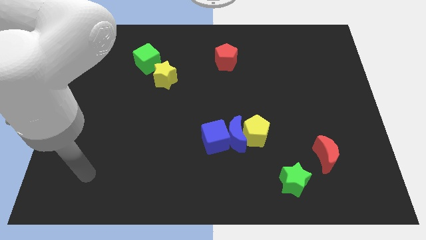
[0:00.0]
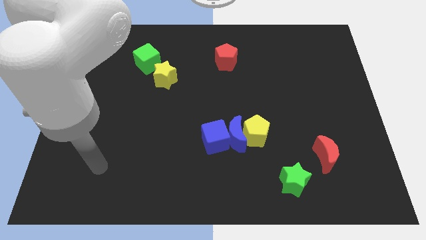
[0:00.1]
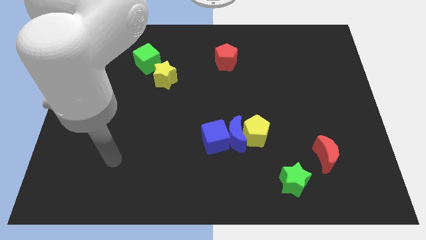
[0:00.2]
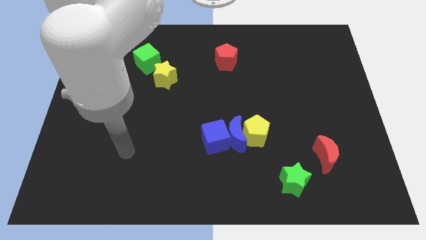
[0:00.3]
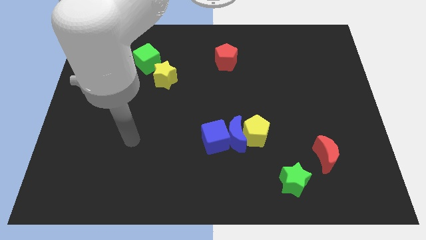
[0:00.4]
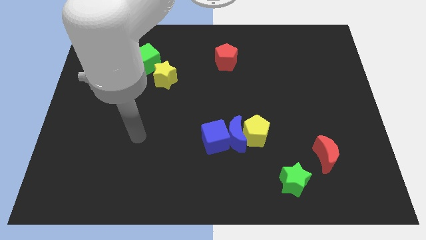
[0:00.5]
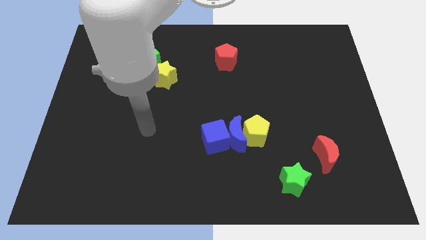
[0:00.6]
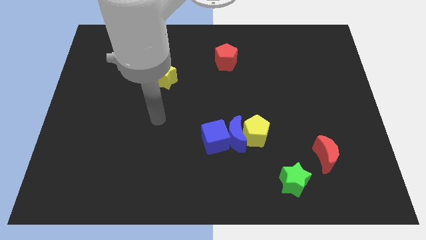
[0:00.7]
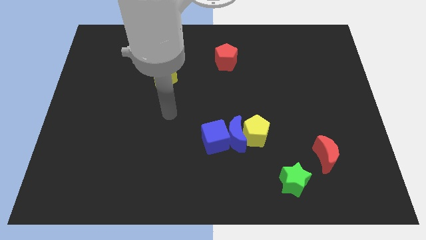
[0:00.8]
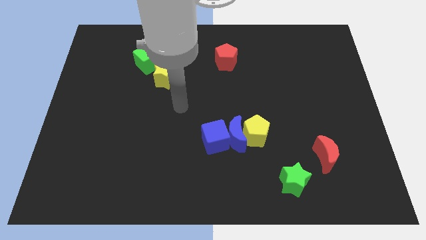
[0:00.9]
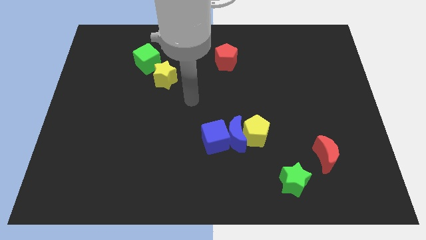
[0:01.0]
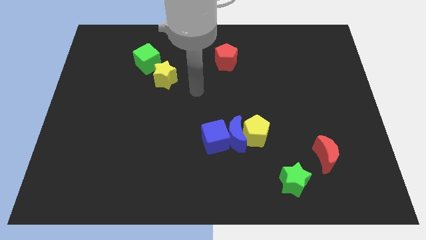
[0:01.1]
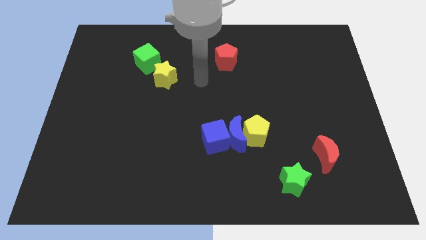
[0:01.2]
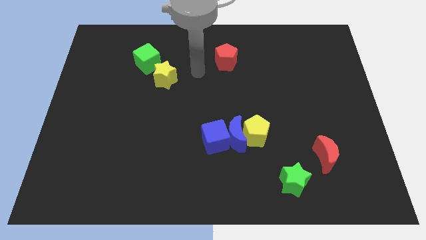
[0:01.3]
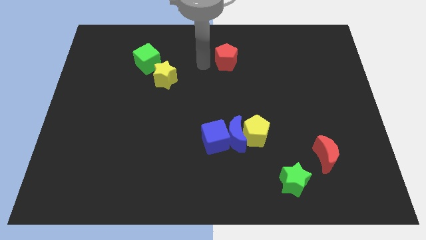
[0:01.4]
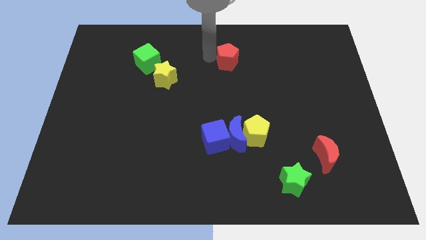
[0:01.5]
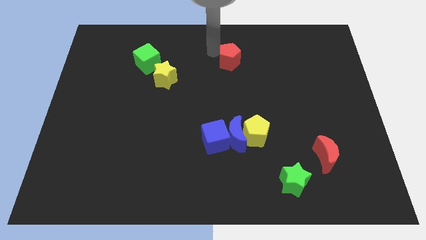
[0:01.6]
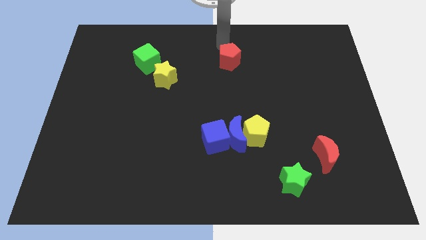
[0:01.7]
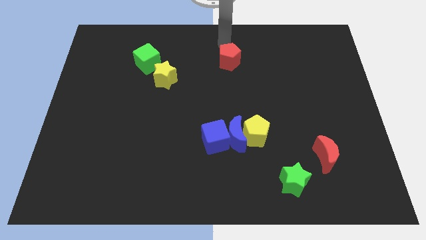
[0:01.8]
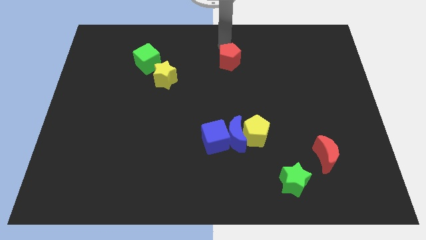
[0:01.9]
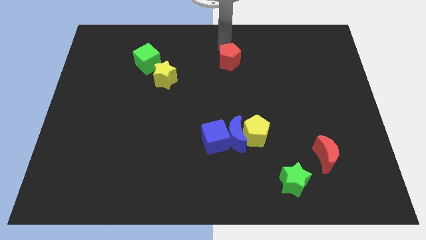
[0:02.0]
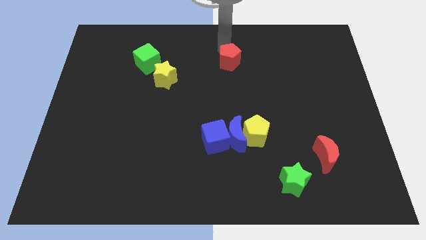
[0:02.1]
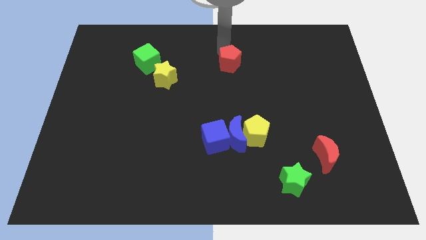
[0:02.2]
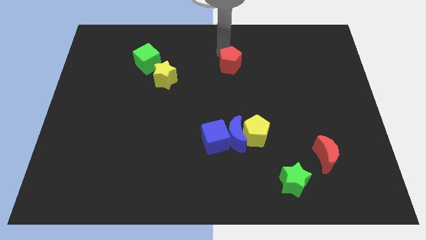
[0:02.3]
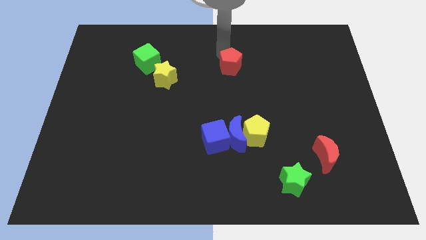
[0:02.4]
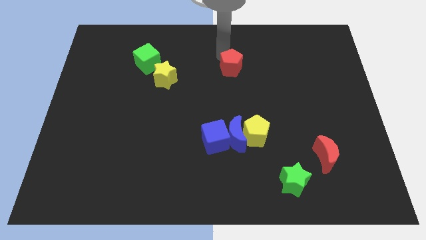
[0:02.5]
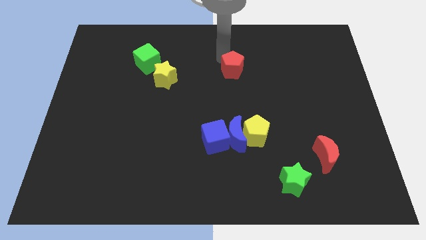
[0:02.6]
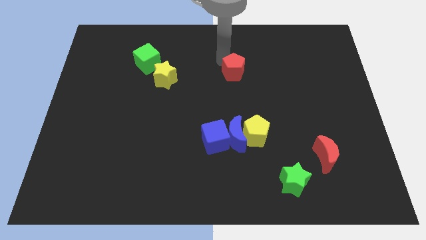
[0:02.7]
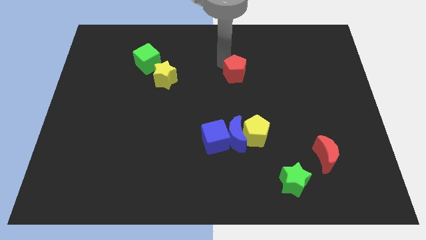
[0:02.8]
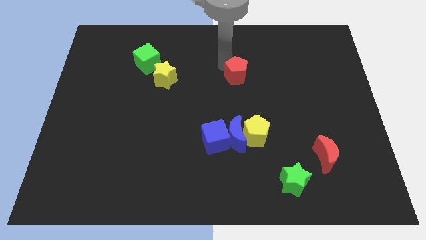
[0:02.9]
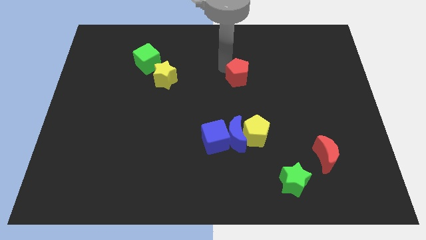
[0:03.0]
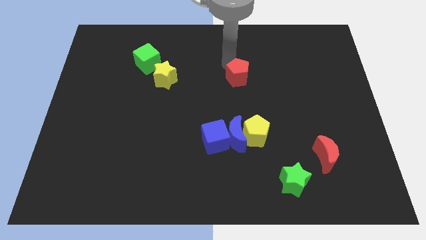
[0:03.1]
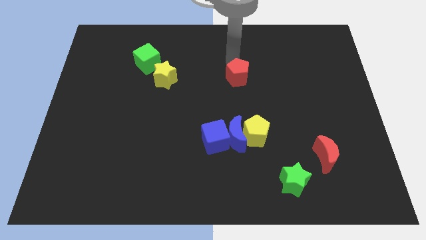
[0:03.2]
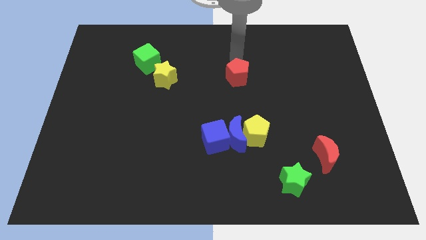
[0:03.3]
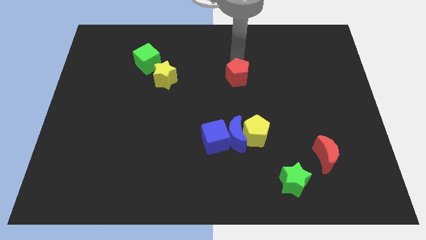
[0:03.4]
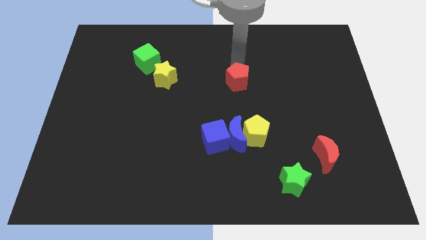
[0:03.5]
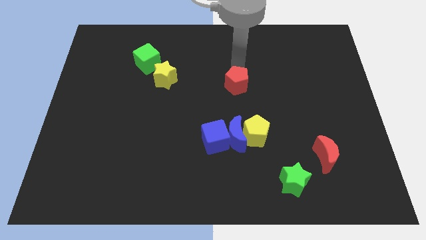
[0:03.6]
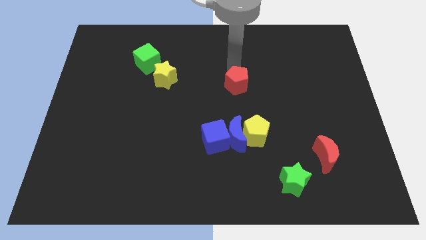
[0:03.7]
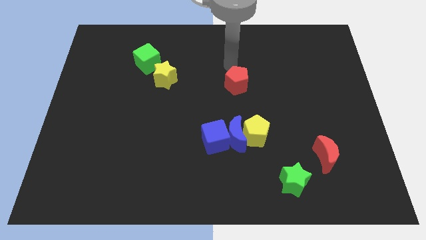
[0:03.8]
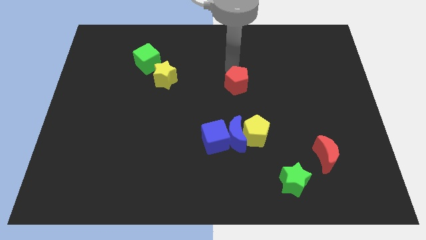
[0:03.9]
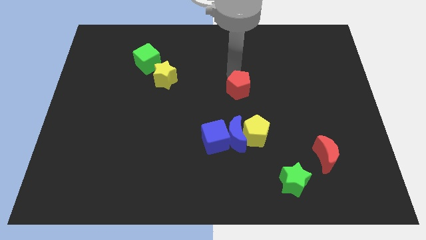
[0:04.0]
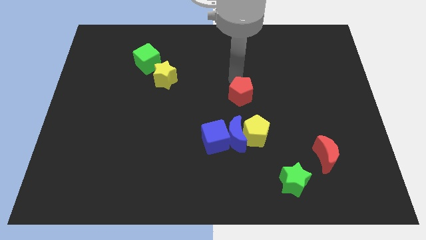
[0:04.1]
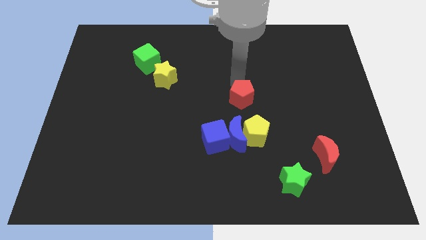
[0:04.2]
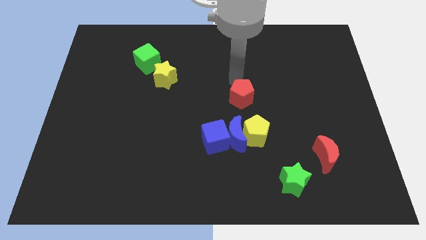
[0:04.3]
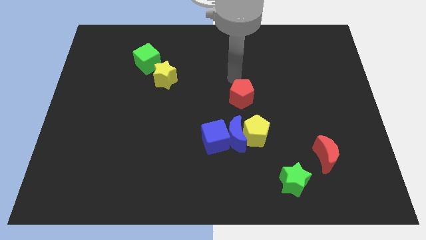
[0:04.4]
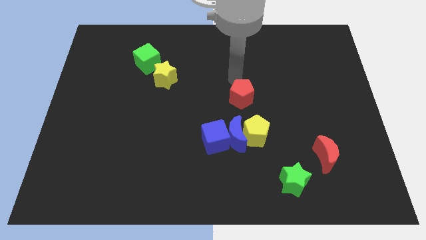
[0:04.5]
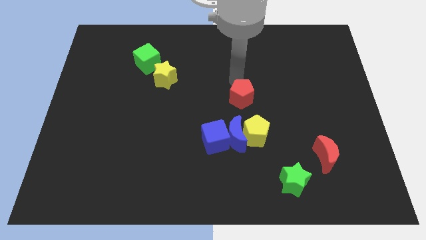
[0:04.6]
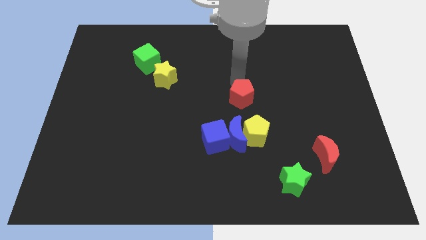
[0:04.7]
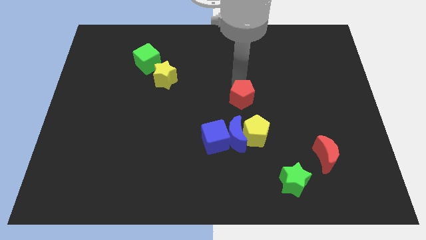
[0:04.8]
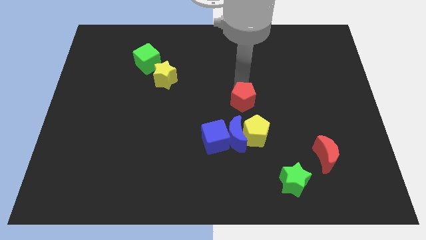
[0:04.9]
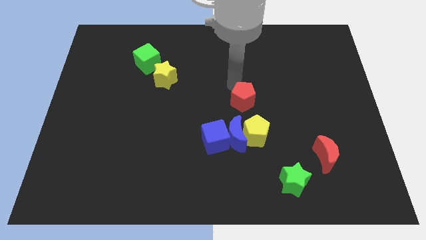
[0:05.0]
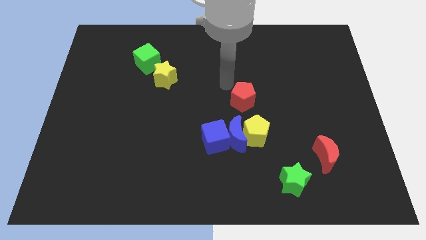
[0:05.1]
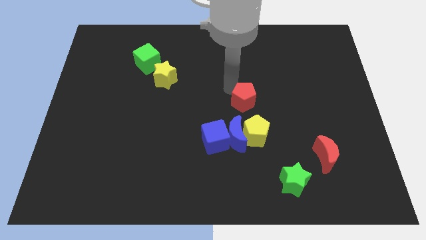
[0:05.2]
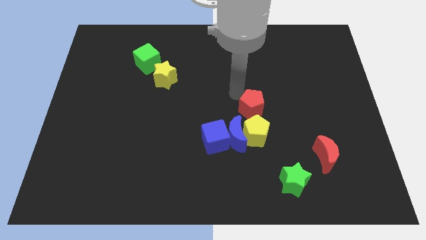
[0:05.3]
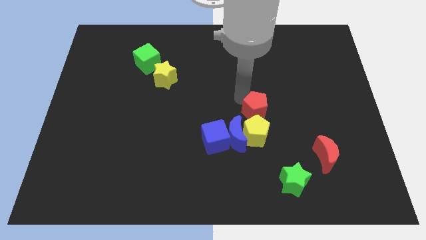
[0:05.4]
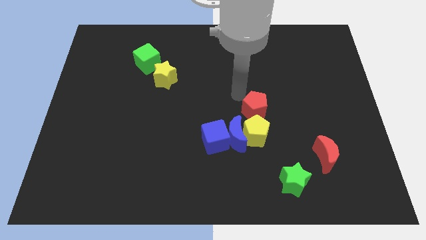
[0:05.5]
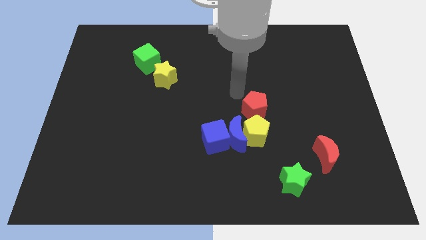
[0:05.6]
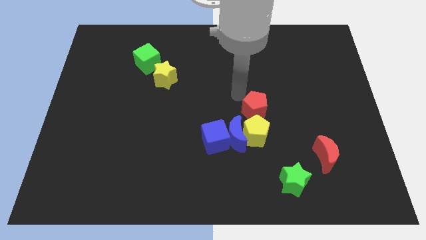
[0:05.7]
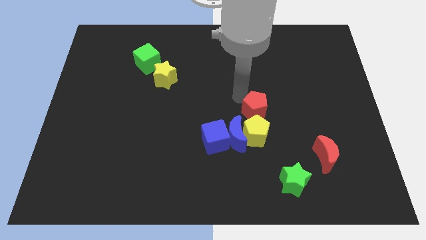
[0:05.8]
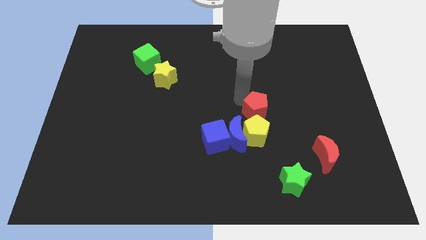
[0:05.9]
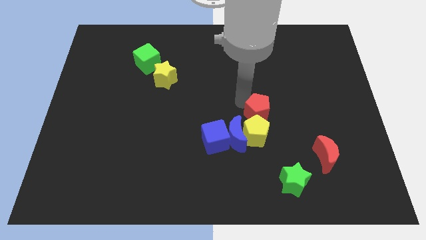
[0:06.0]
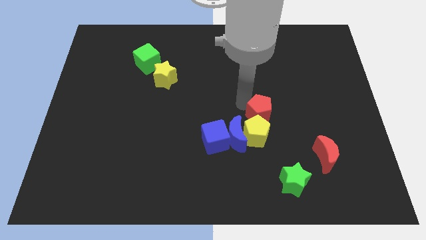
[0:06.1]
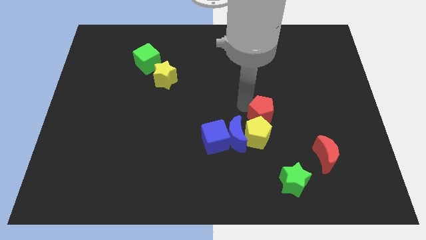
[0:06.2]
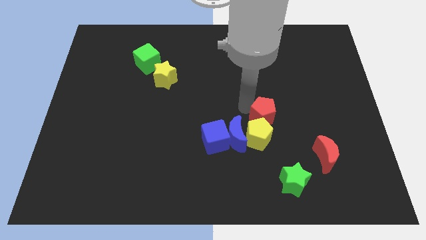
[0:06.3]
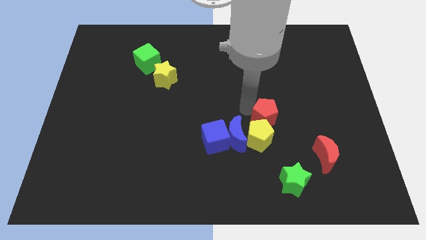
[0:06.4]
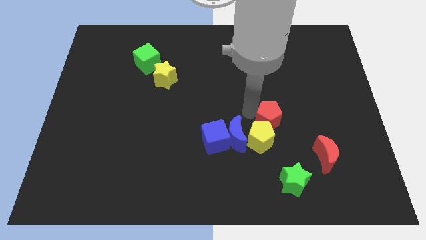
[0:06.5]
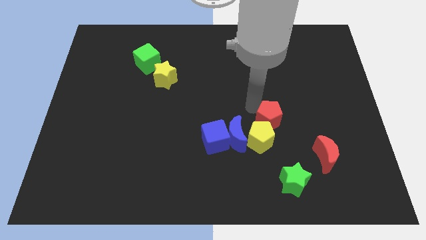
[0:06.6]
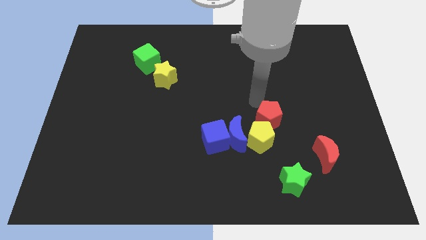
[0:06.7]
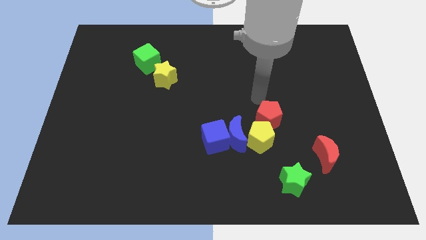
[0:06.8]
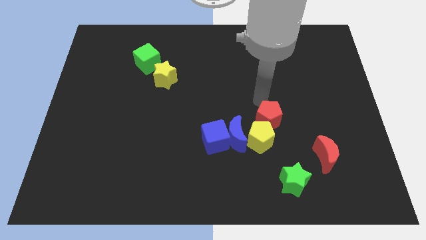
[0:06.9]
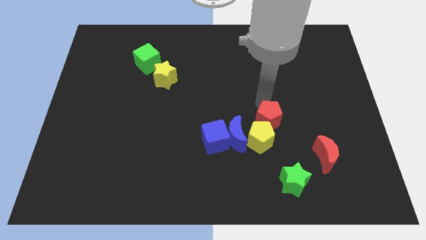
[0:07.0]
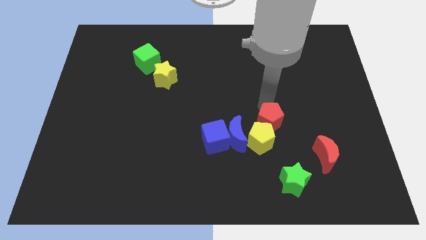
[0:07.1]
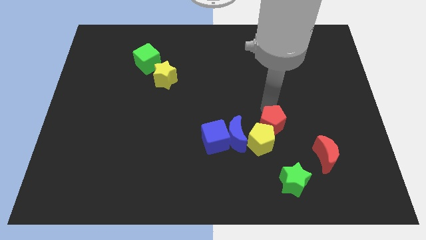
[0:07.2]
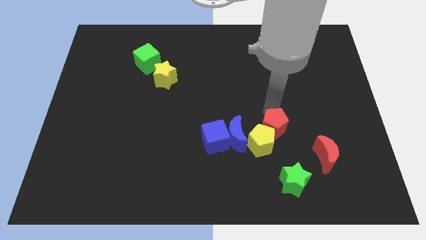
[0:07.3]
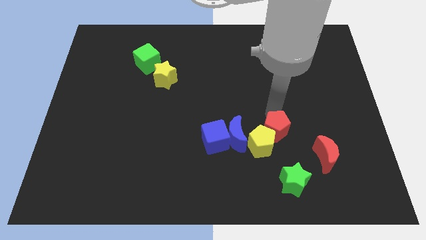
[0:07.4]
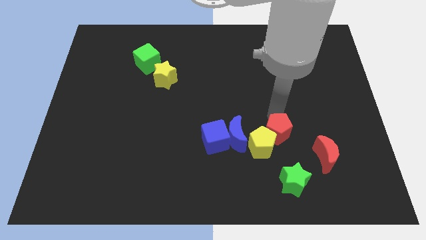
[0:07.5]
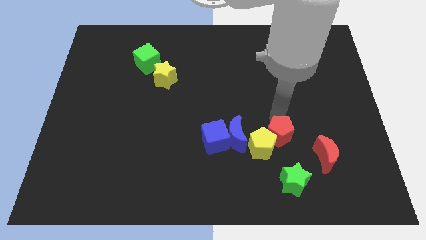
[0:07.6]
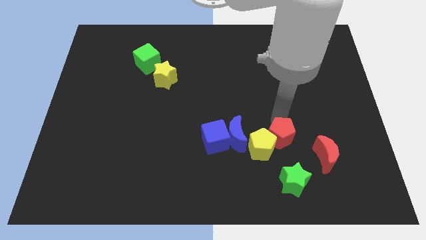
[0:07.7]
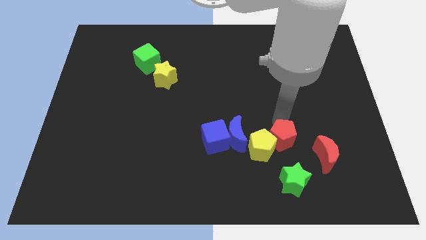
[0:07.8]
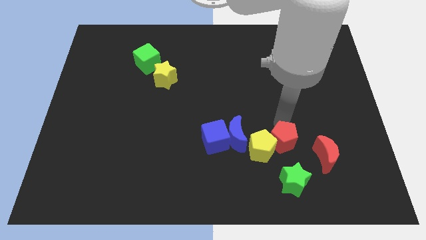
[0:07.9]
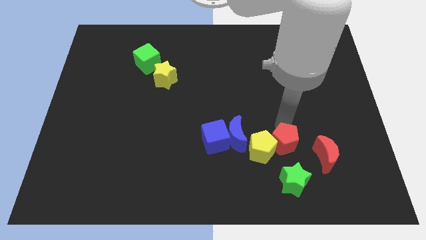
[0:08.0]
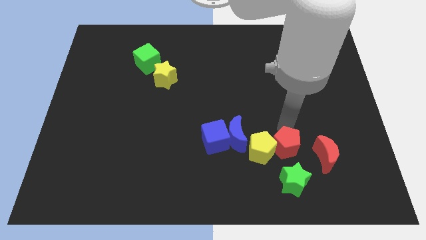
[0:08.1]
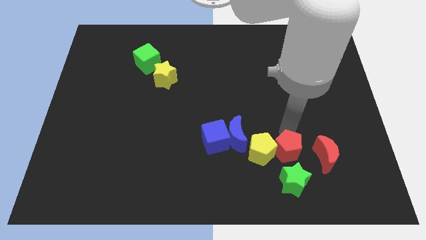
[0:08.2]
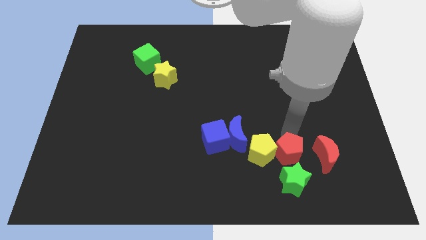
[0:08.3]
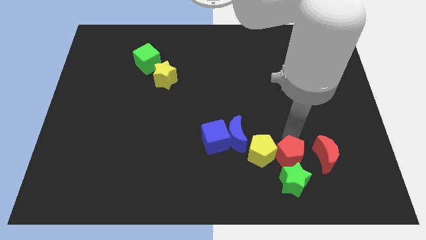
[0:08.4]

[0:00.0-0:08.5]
move the red pentagon towards the green star
